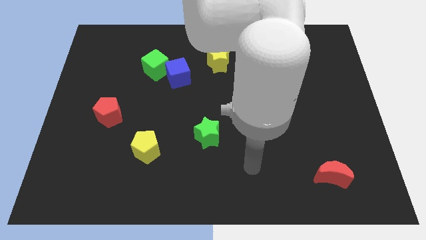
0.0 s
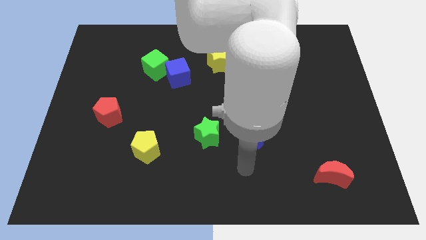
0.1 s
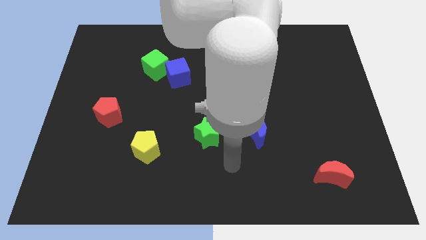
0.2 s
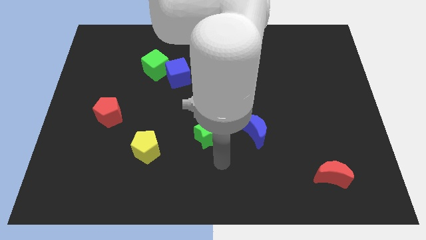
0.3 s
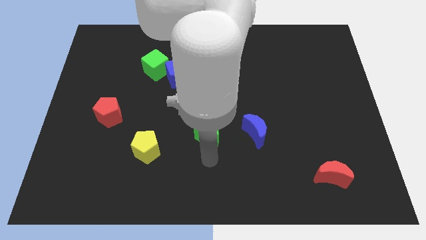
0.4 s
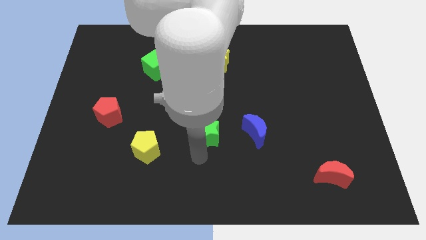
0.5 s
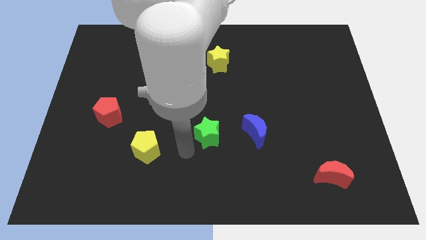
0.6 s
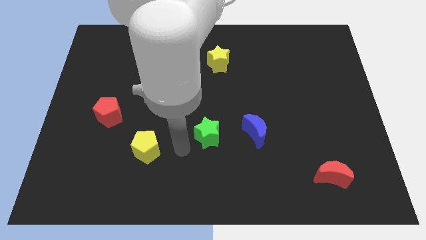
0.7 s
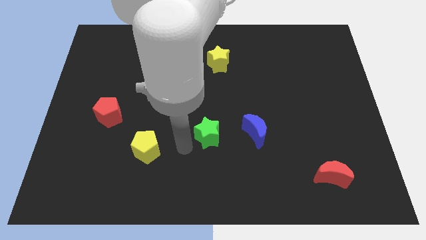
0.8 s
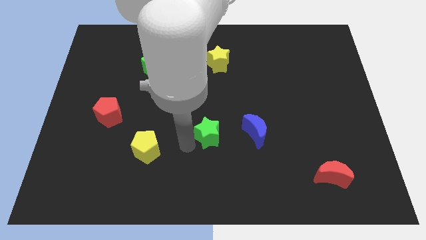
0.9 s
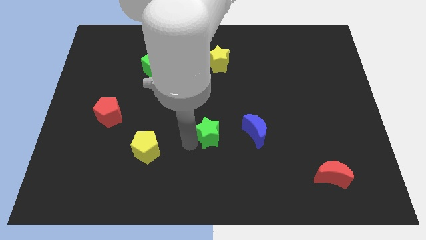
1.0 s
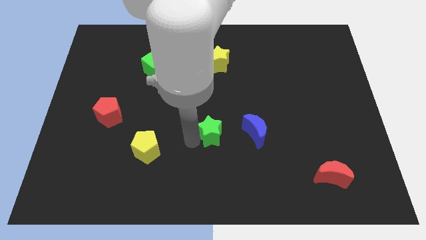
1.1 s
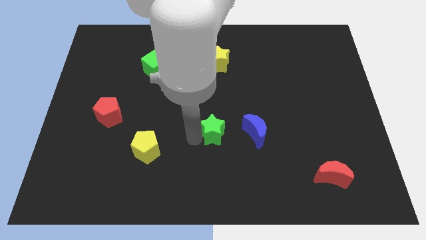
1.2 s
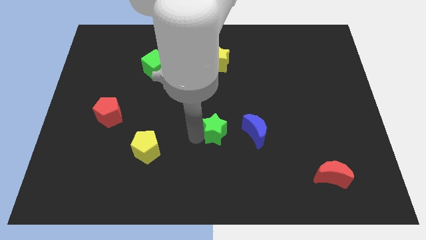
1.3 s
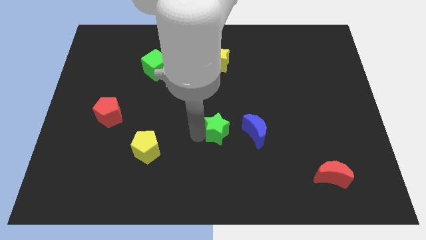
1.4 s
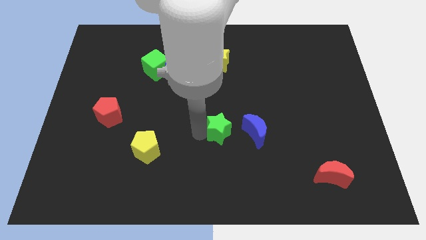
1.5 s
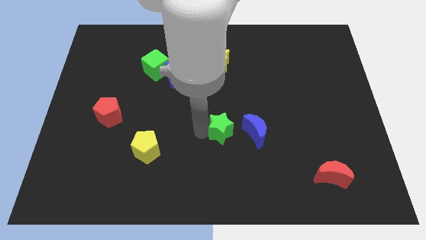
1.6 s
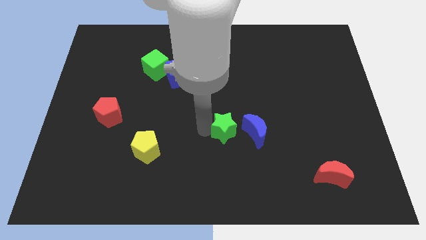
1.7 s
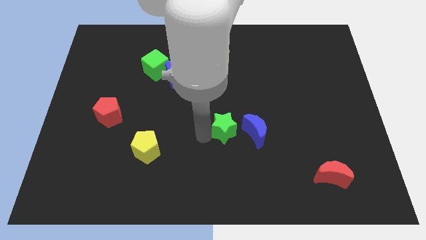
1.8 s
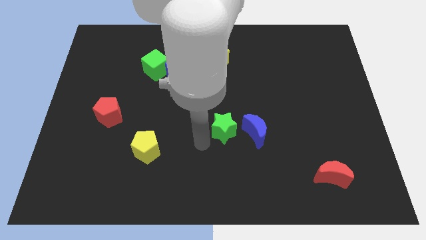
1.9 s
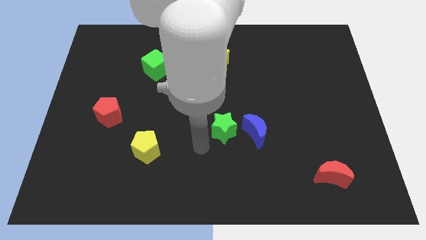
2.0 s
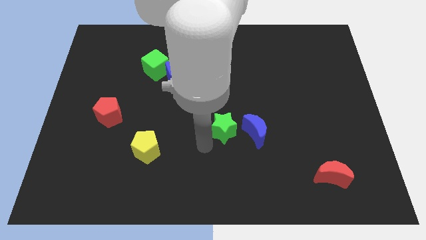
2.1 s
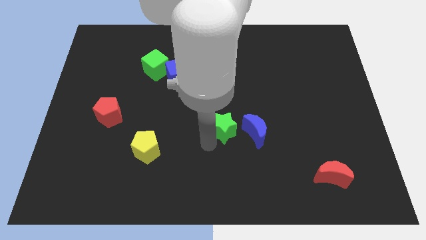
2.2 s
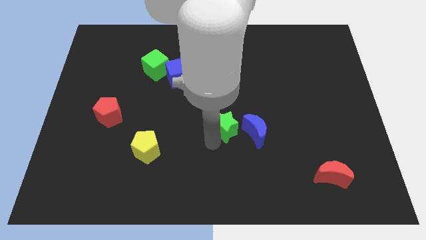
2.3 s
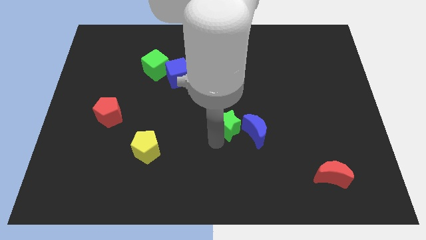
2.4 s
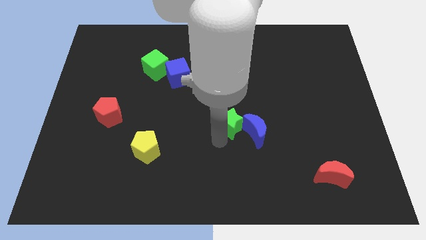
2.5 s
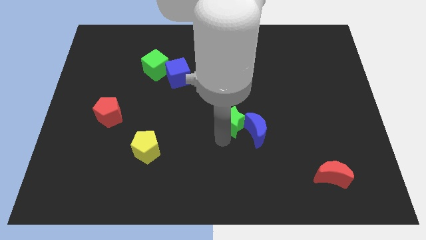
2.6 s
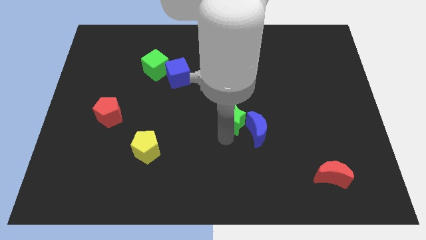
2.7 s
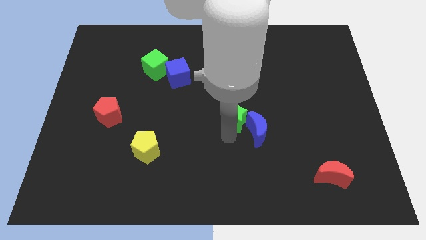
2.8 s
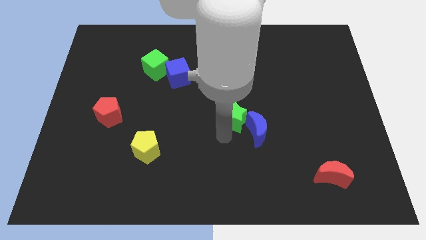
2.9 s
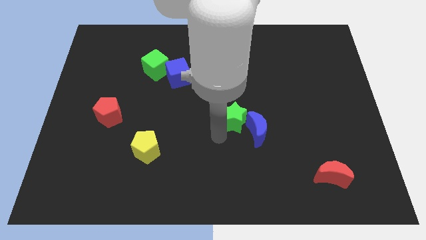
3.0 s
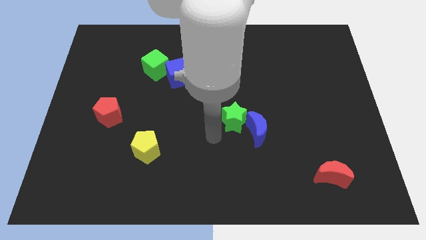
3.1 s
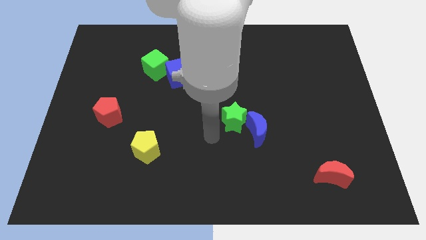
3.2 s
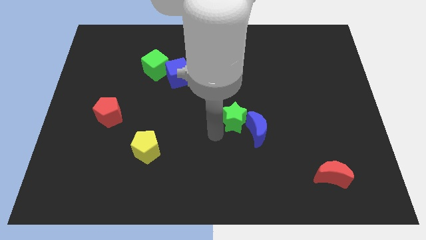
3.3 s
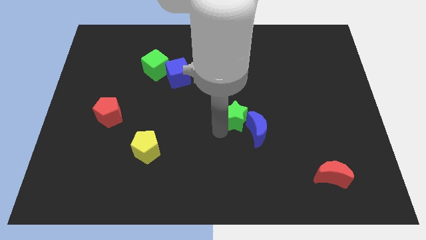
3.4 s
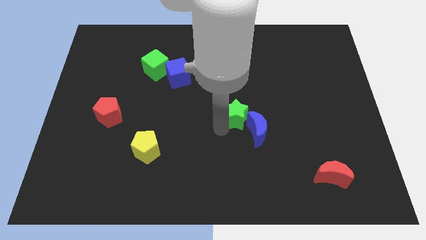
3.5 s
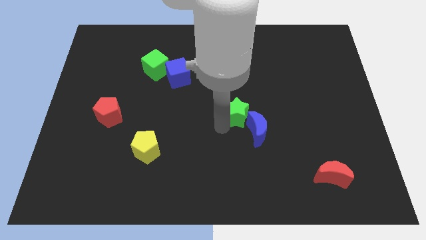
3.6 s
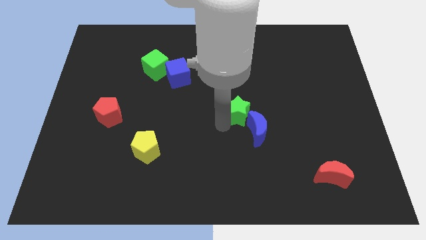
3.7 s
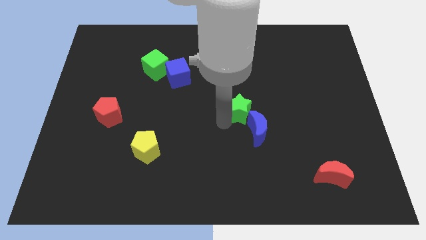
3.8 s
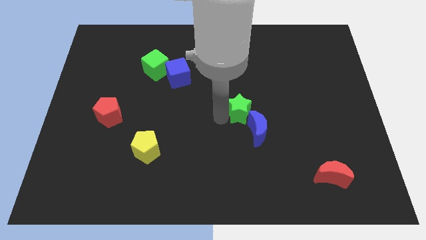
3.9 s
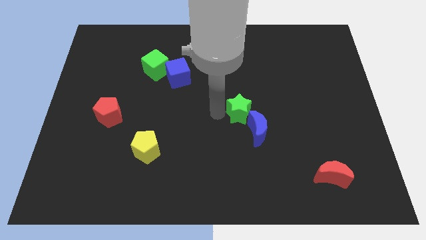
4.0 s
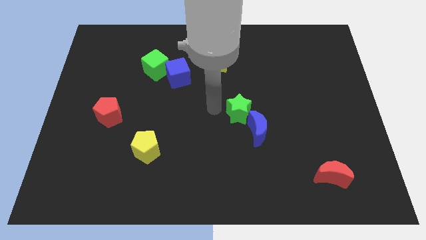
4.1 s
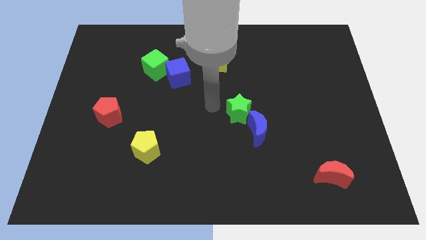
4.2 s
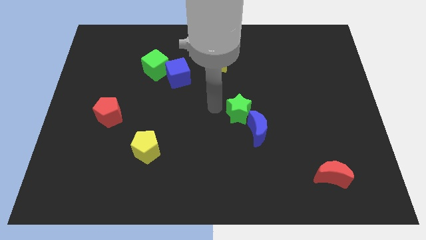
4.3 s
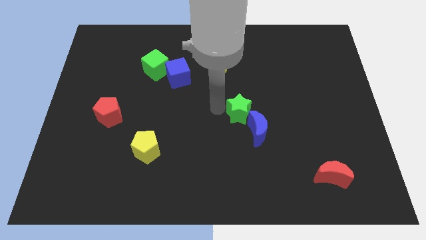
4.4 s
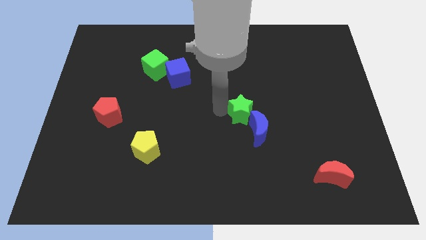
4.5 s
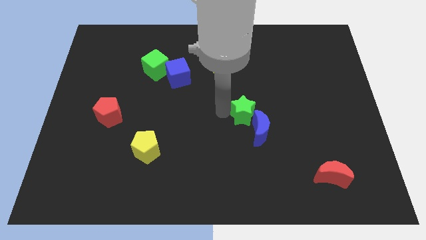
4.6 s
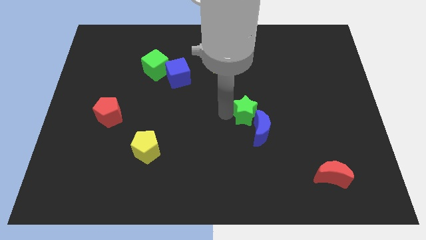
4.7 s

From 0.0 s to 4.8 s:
slide the green star somewhat right

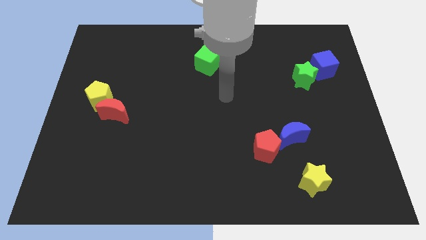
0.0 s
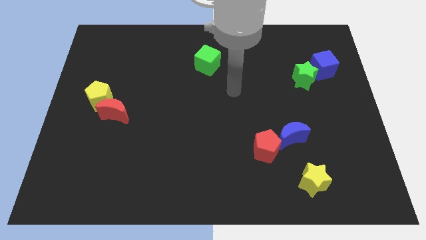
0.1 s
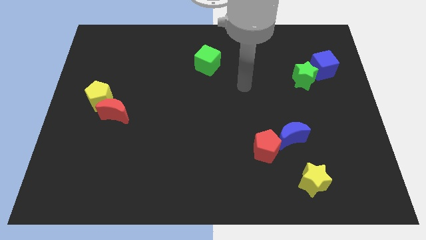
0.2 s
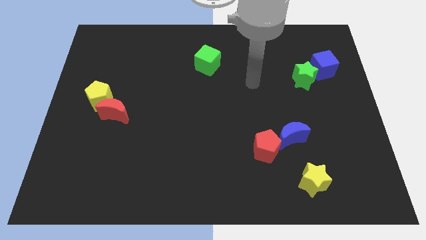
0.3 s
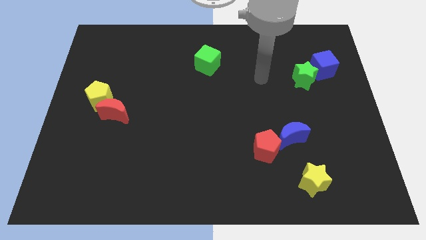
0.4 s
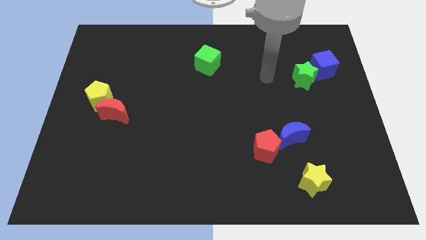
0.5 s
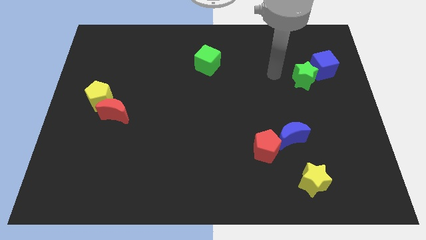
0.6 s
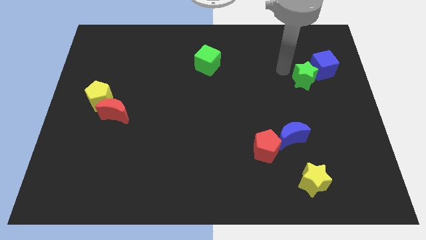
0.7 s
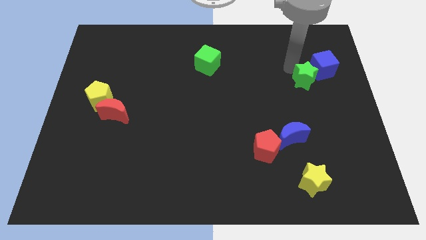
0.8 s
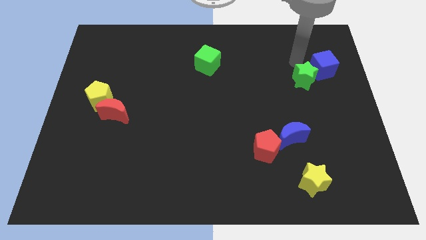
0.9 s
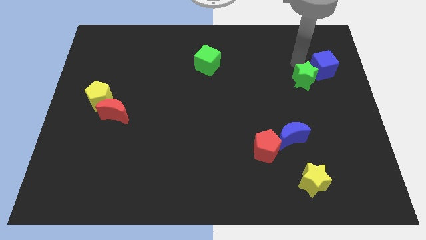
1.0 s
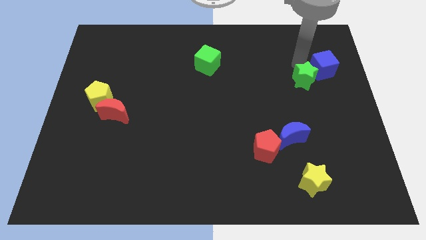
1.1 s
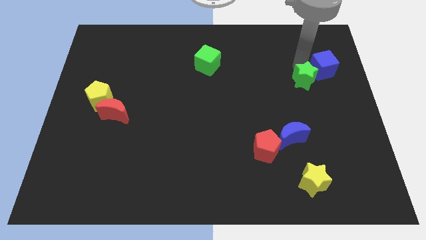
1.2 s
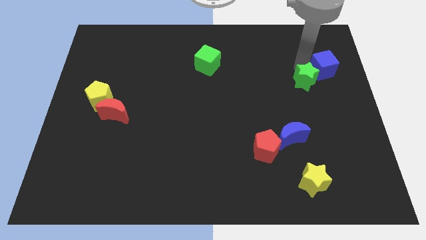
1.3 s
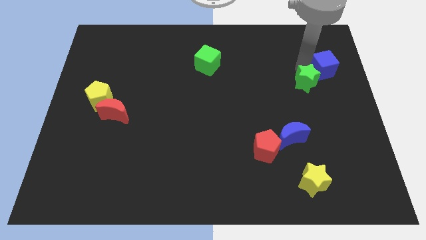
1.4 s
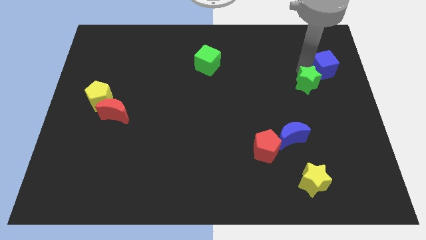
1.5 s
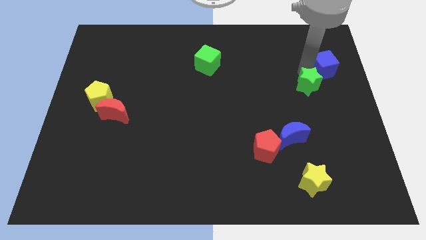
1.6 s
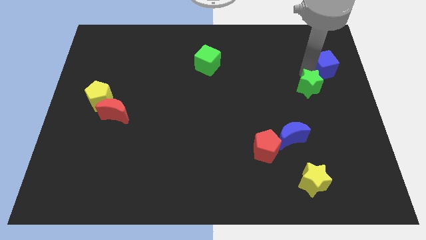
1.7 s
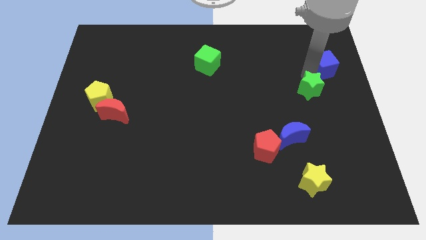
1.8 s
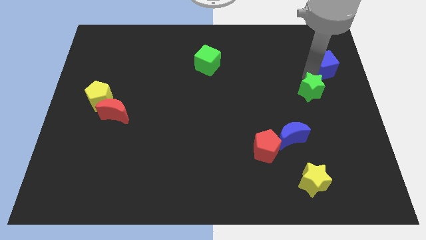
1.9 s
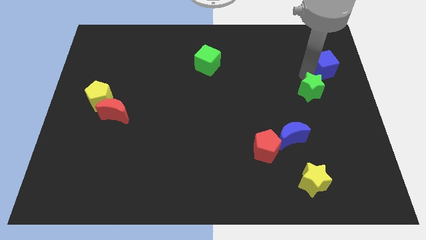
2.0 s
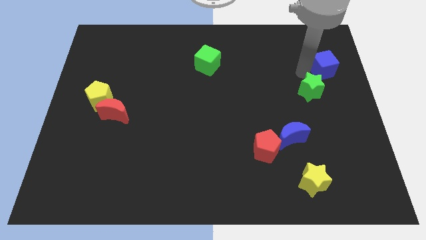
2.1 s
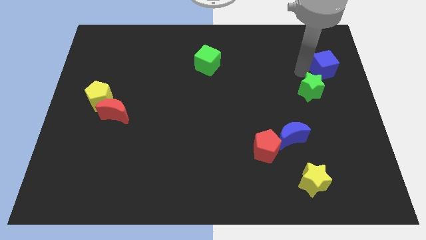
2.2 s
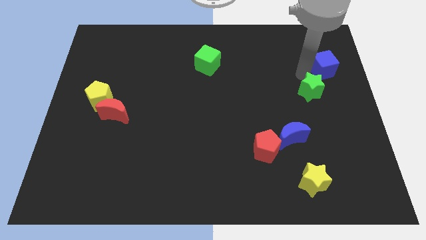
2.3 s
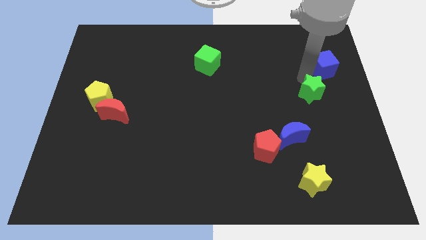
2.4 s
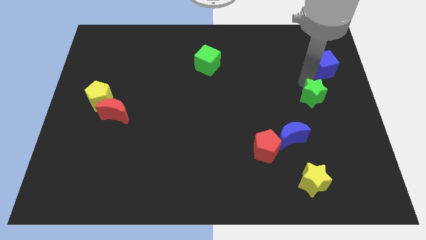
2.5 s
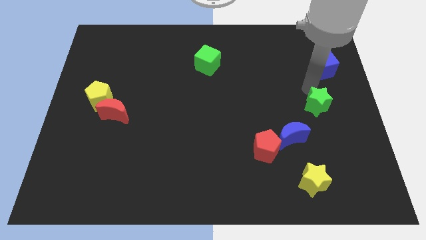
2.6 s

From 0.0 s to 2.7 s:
slightly push the green star down
